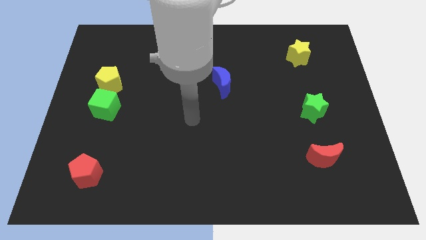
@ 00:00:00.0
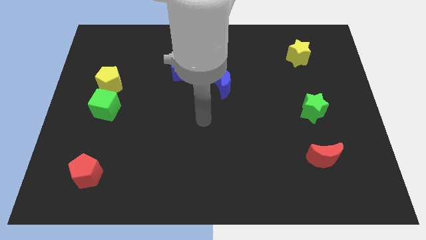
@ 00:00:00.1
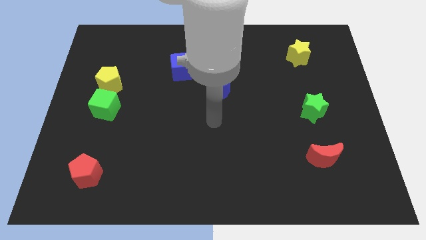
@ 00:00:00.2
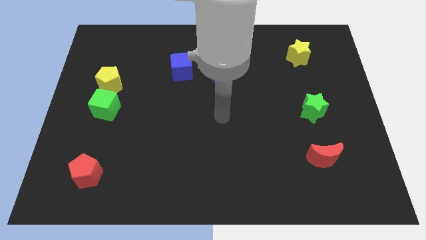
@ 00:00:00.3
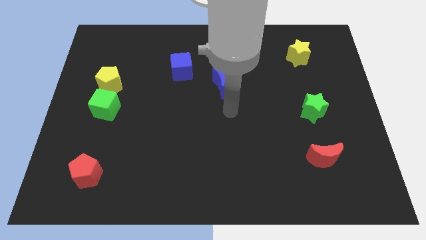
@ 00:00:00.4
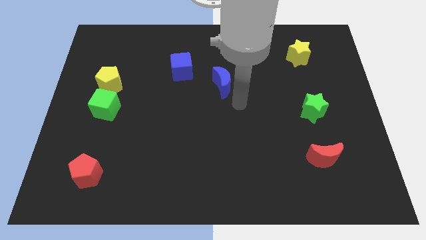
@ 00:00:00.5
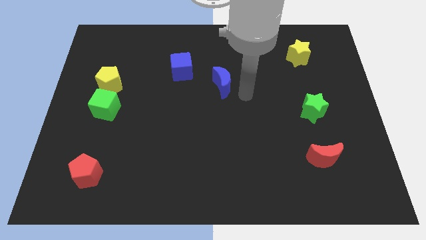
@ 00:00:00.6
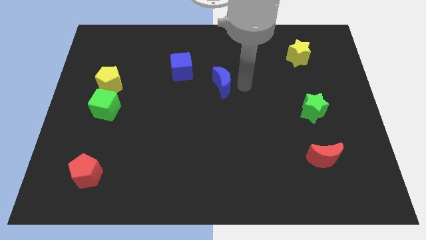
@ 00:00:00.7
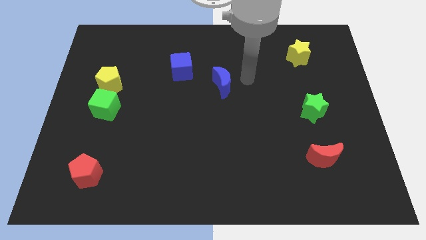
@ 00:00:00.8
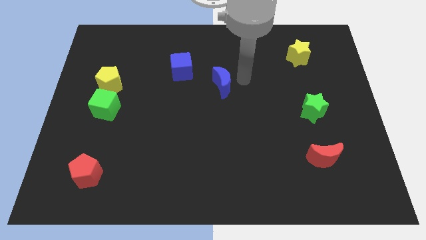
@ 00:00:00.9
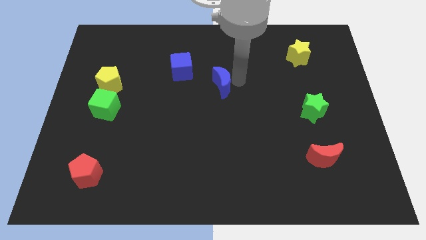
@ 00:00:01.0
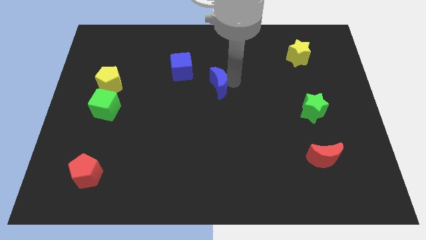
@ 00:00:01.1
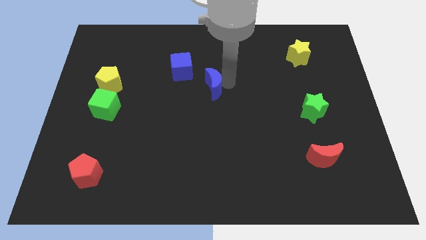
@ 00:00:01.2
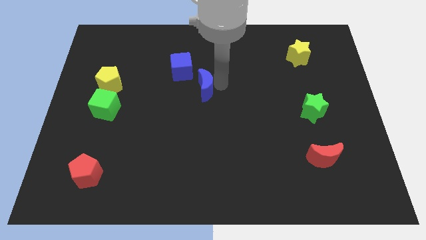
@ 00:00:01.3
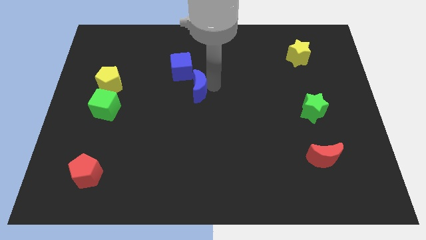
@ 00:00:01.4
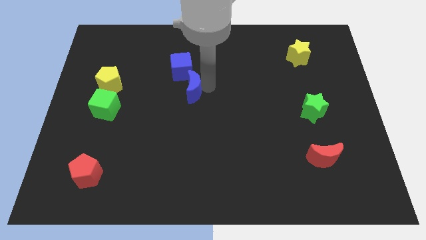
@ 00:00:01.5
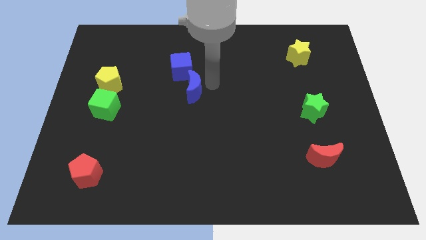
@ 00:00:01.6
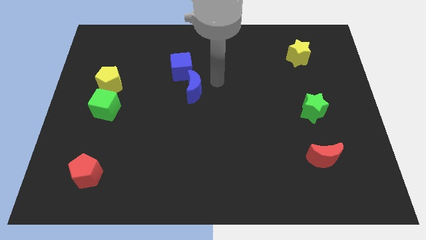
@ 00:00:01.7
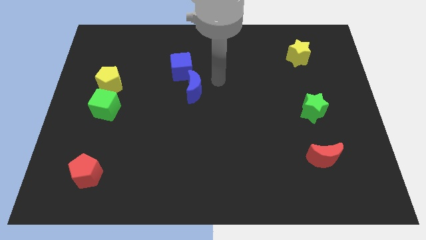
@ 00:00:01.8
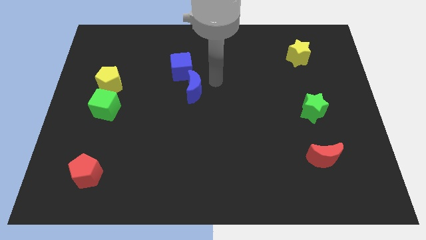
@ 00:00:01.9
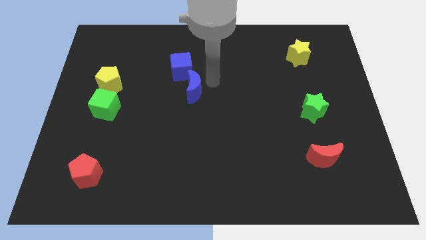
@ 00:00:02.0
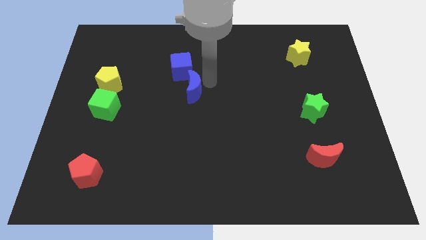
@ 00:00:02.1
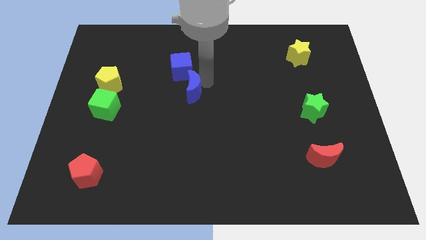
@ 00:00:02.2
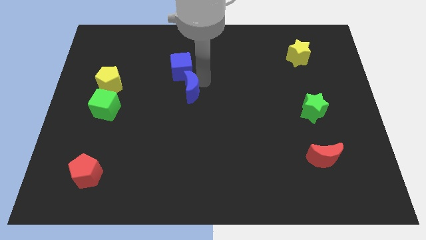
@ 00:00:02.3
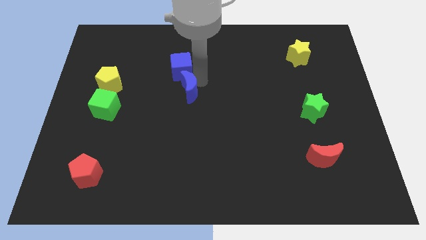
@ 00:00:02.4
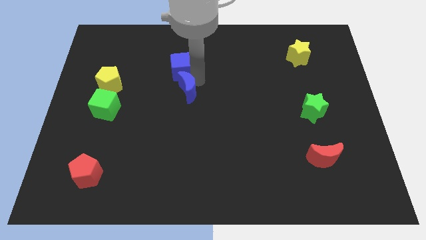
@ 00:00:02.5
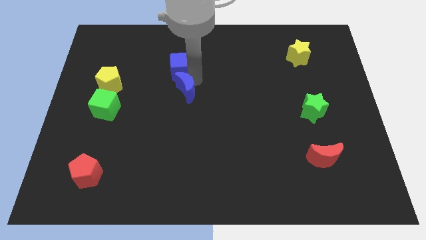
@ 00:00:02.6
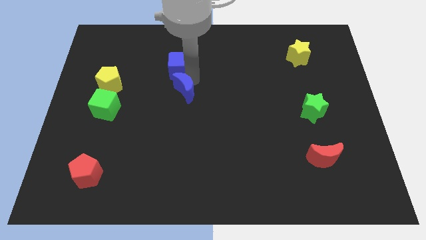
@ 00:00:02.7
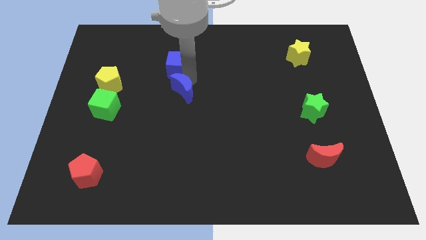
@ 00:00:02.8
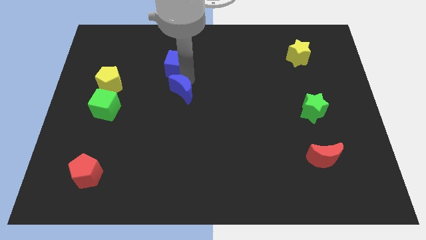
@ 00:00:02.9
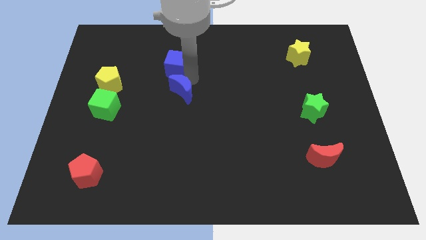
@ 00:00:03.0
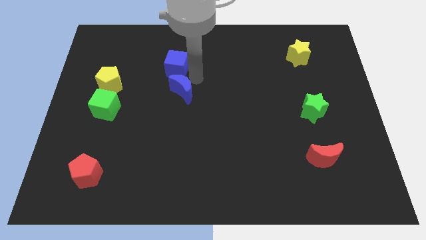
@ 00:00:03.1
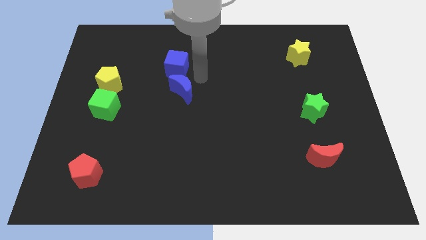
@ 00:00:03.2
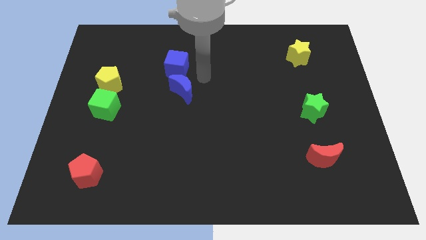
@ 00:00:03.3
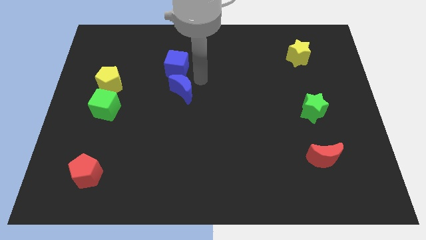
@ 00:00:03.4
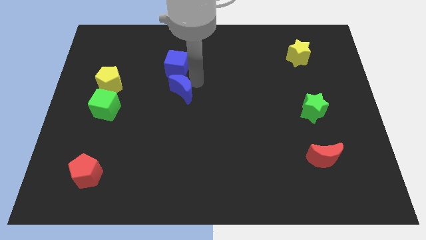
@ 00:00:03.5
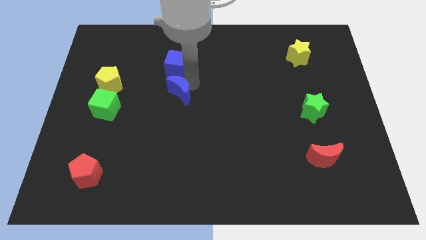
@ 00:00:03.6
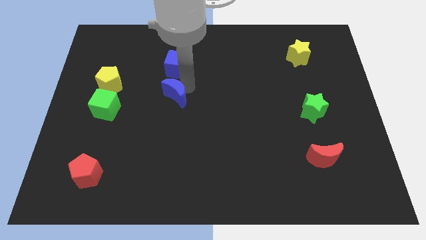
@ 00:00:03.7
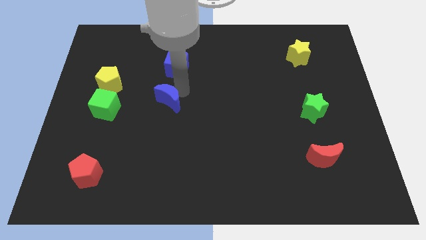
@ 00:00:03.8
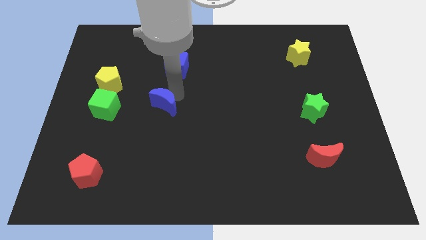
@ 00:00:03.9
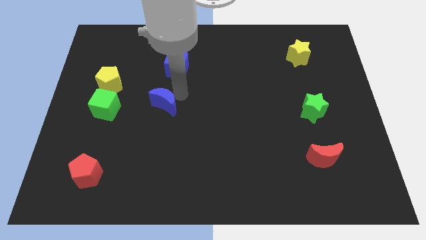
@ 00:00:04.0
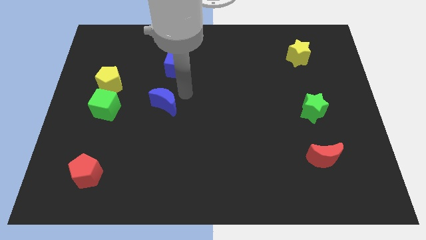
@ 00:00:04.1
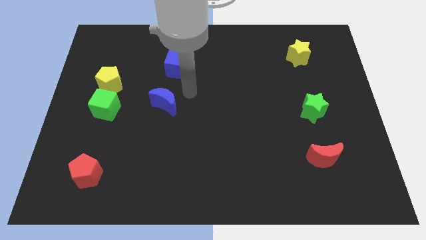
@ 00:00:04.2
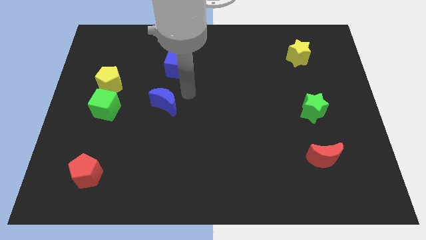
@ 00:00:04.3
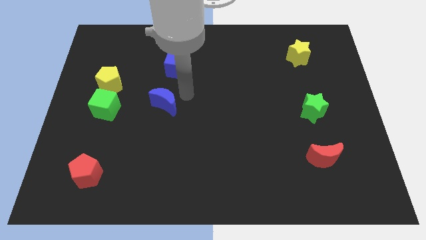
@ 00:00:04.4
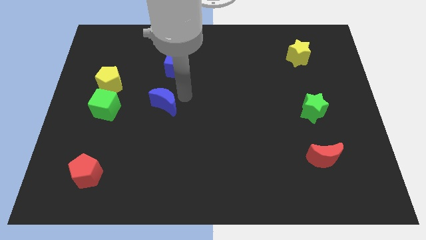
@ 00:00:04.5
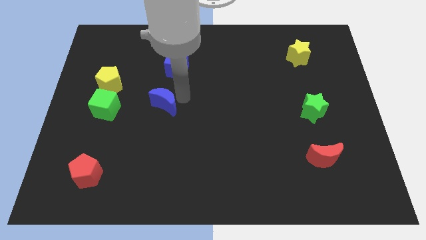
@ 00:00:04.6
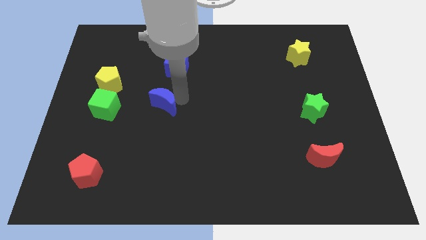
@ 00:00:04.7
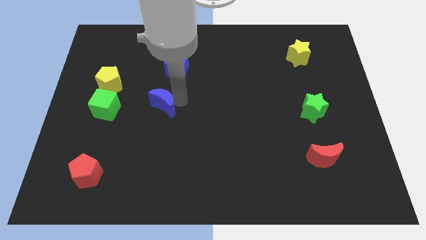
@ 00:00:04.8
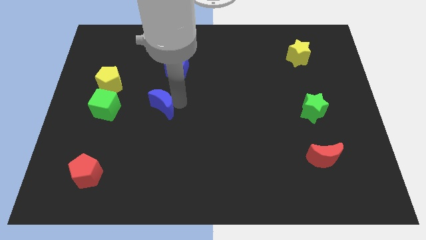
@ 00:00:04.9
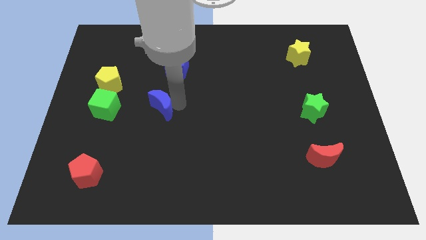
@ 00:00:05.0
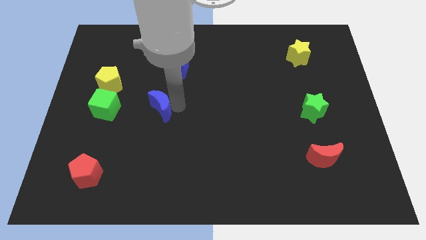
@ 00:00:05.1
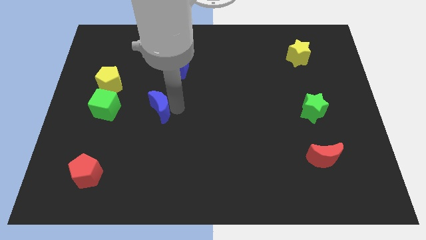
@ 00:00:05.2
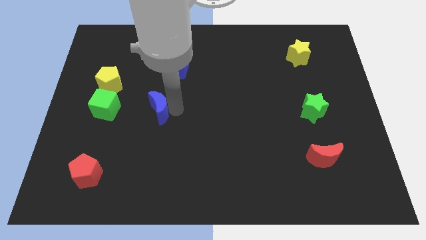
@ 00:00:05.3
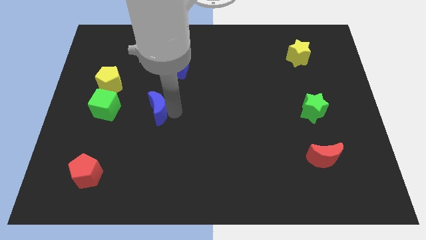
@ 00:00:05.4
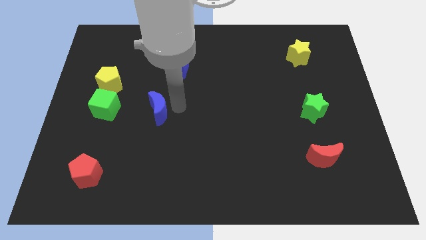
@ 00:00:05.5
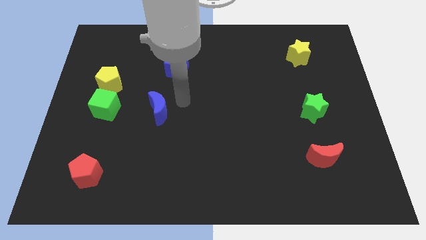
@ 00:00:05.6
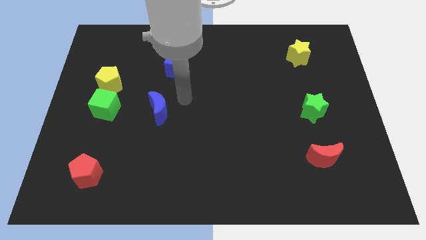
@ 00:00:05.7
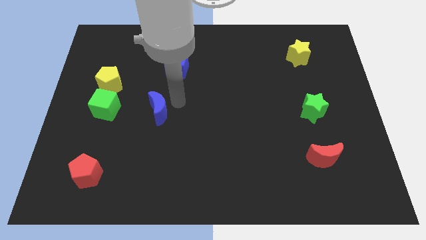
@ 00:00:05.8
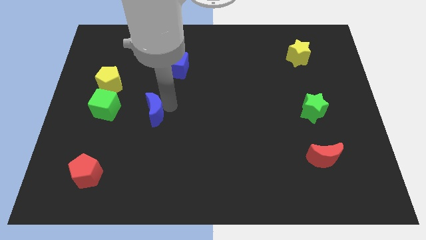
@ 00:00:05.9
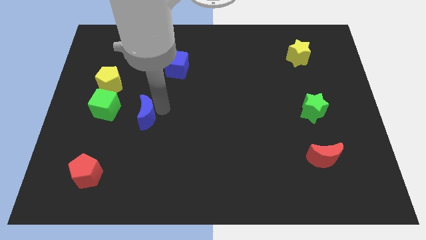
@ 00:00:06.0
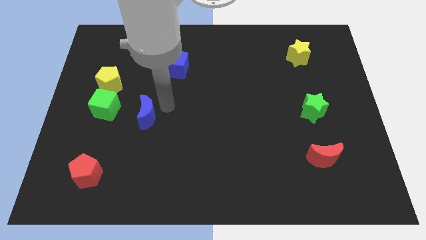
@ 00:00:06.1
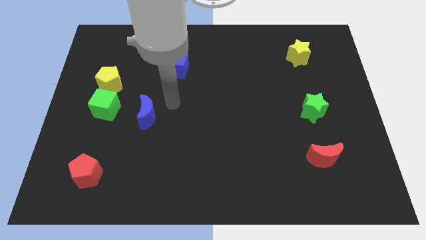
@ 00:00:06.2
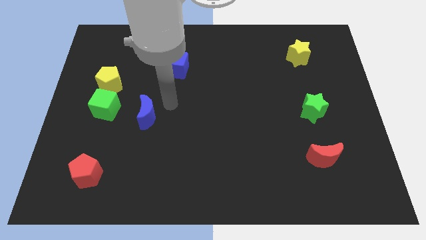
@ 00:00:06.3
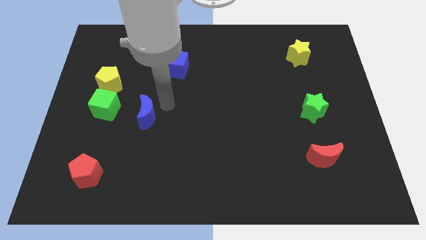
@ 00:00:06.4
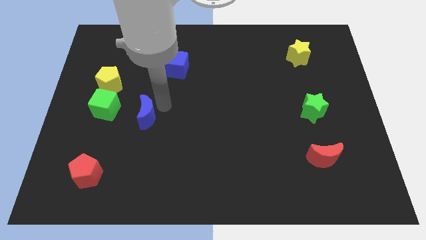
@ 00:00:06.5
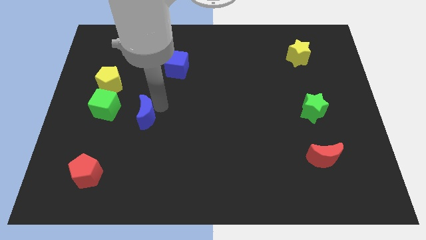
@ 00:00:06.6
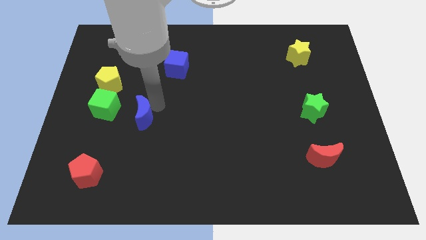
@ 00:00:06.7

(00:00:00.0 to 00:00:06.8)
push the blue moon to the bottom right of the green cube
